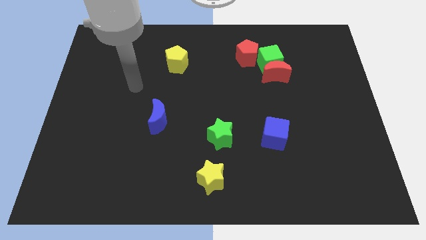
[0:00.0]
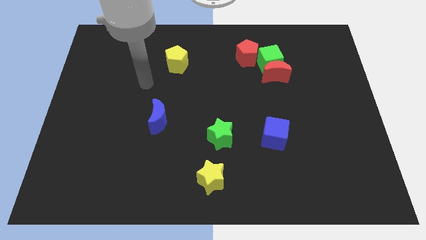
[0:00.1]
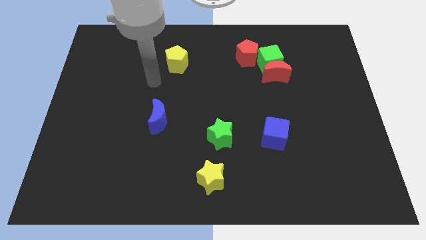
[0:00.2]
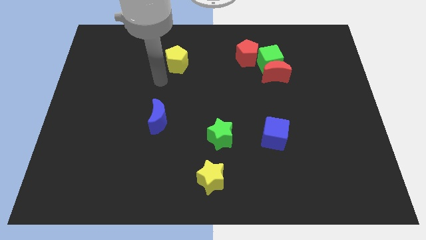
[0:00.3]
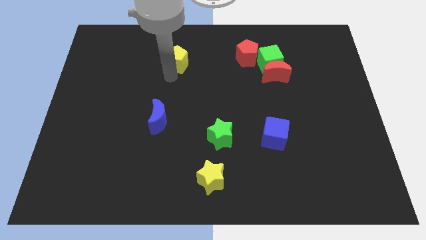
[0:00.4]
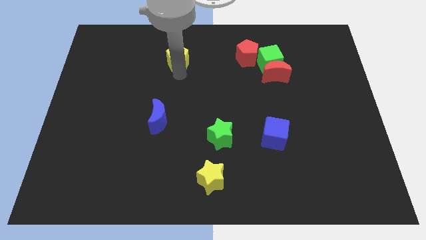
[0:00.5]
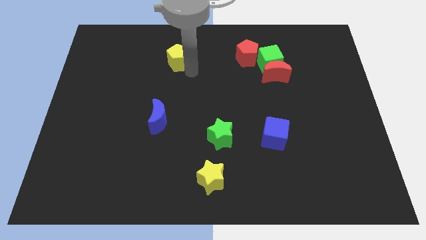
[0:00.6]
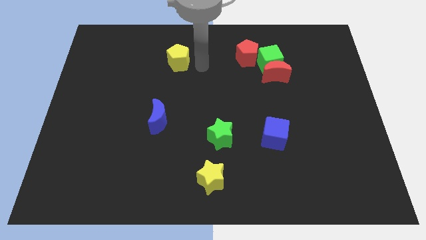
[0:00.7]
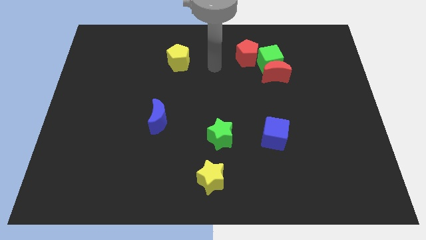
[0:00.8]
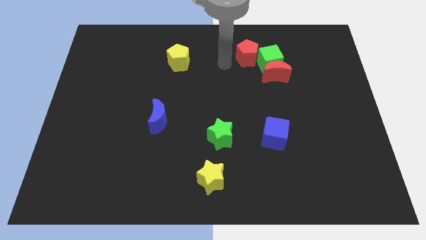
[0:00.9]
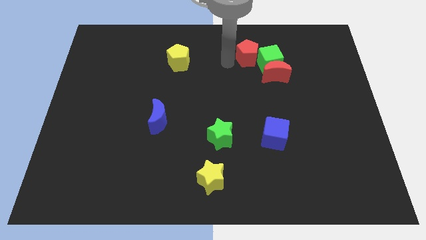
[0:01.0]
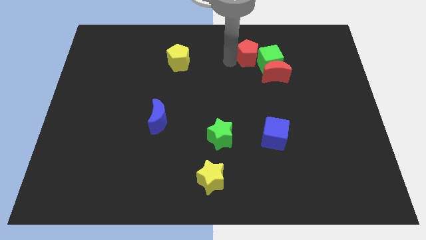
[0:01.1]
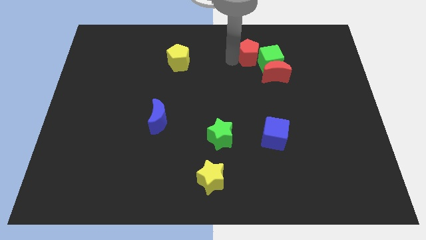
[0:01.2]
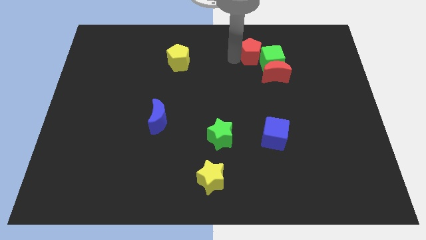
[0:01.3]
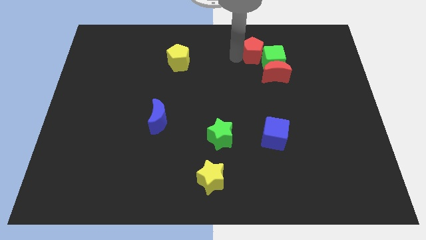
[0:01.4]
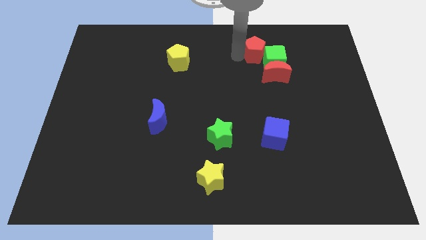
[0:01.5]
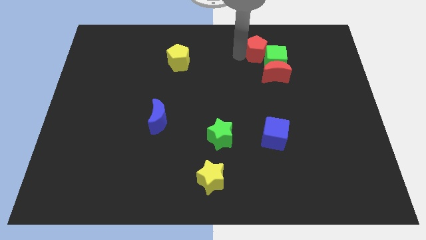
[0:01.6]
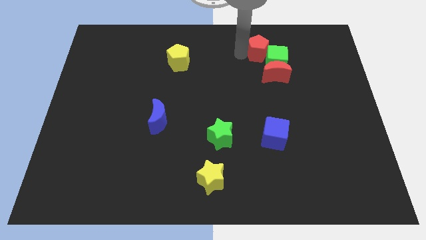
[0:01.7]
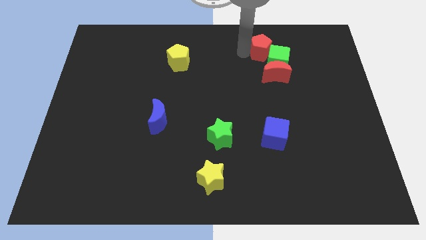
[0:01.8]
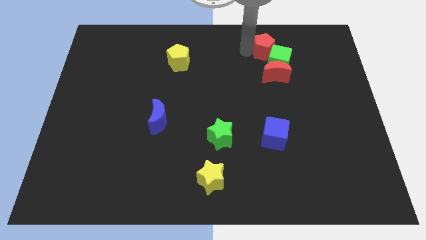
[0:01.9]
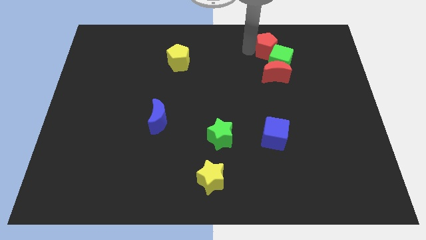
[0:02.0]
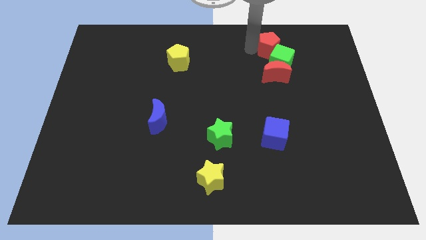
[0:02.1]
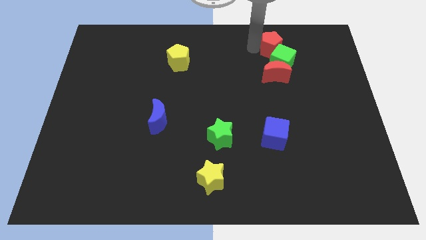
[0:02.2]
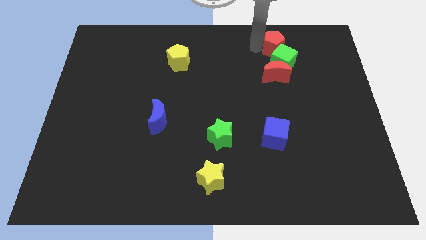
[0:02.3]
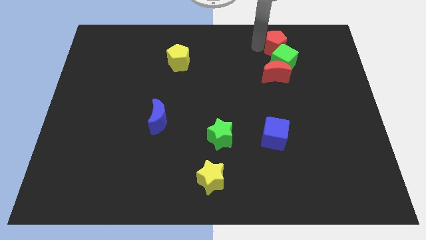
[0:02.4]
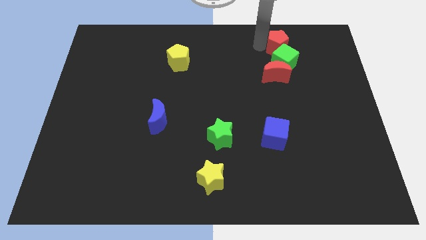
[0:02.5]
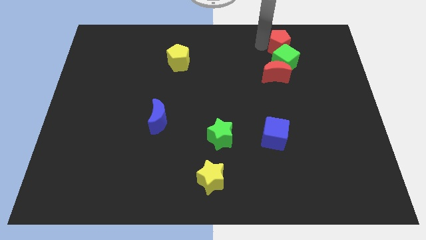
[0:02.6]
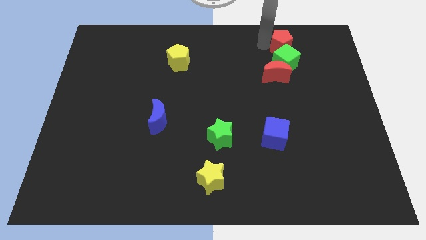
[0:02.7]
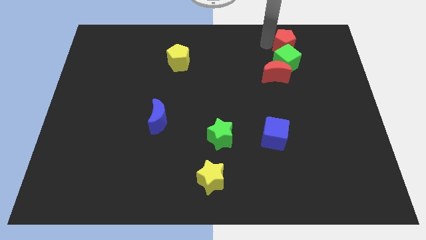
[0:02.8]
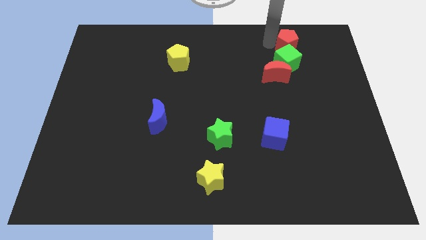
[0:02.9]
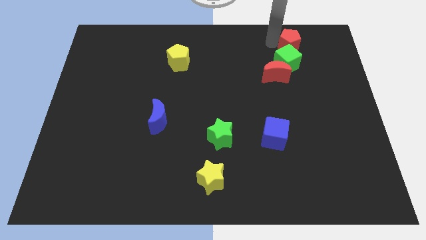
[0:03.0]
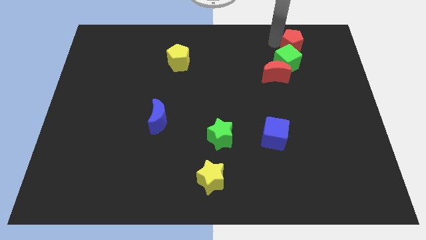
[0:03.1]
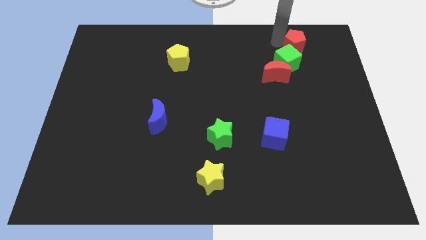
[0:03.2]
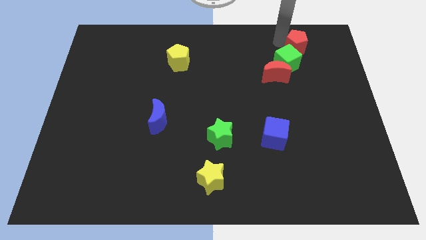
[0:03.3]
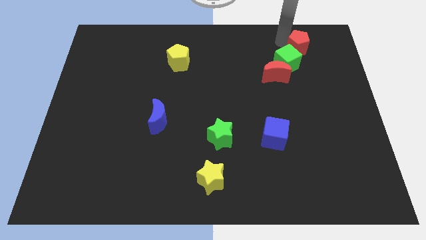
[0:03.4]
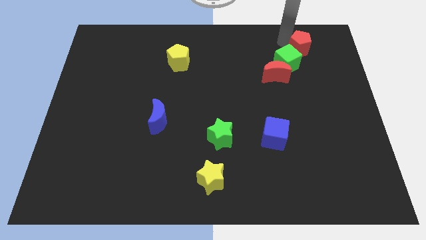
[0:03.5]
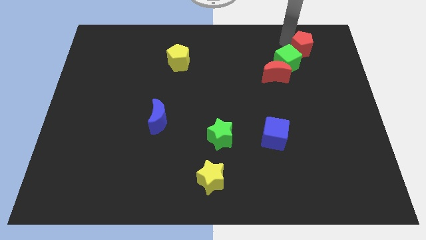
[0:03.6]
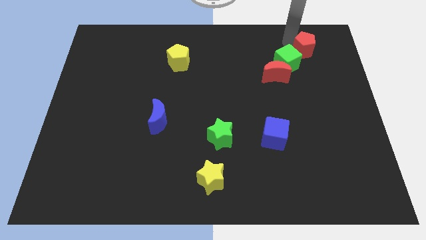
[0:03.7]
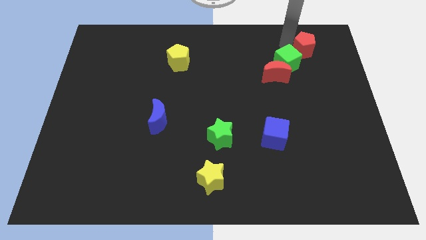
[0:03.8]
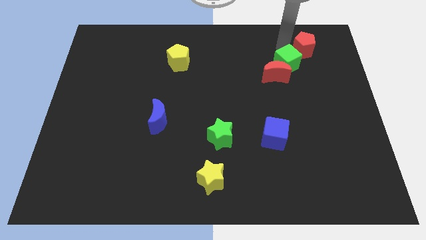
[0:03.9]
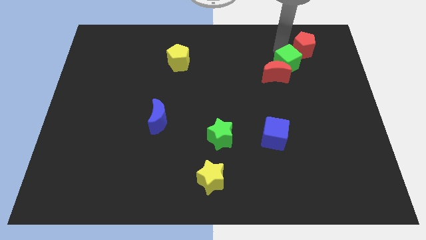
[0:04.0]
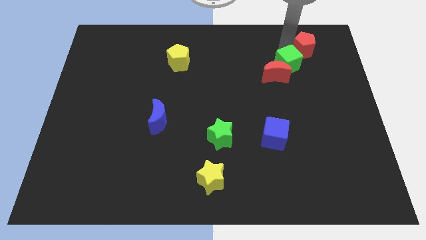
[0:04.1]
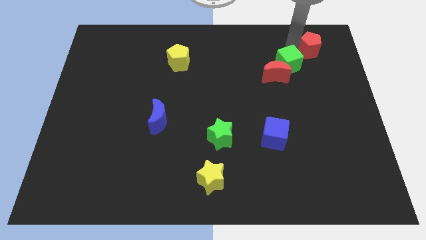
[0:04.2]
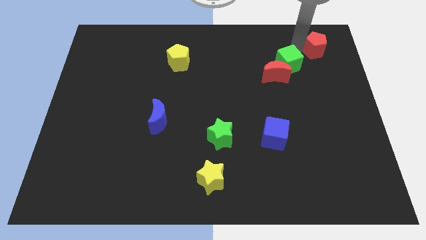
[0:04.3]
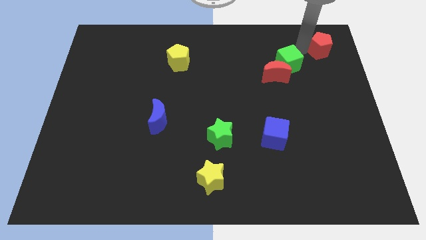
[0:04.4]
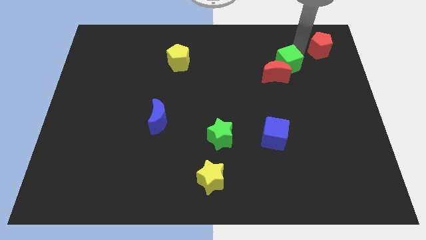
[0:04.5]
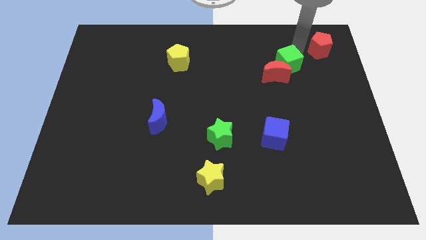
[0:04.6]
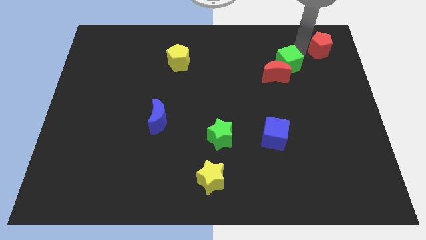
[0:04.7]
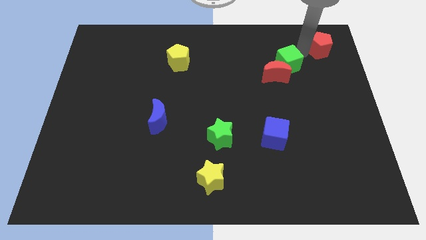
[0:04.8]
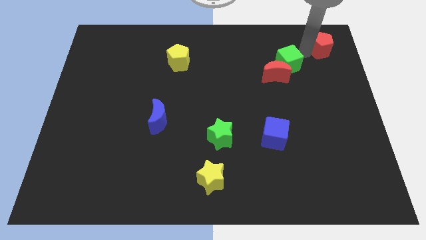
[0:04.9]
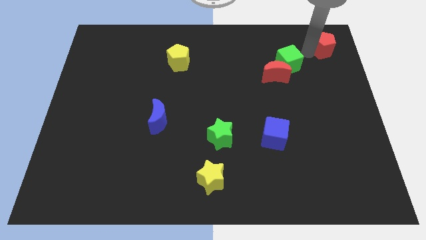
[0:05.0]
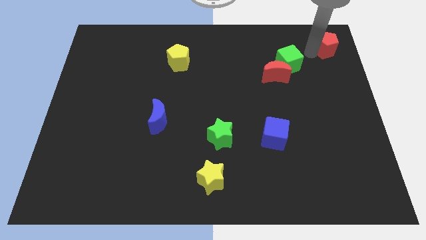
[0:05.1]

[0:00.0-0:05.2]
push the red pentagon to the top right of the board

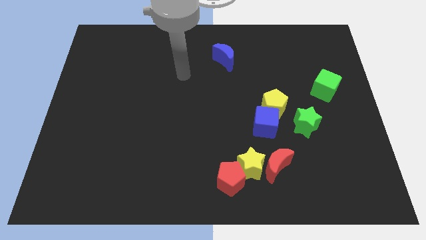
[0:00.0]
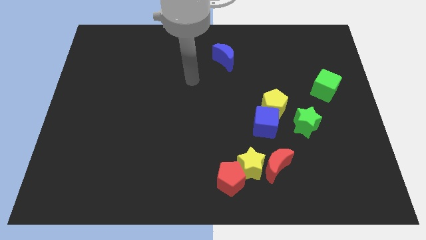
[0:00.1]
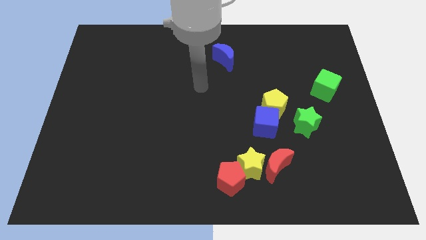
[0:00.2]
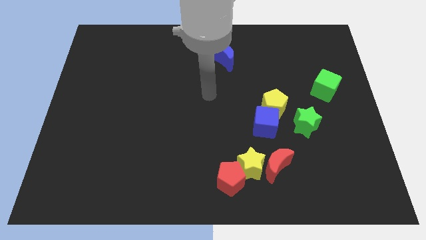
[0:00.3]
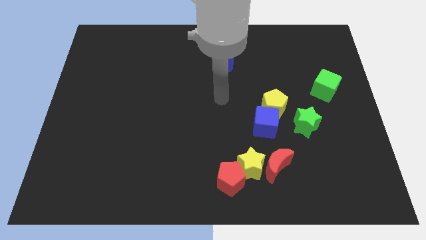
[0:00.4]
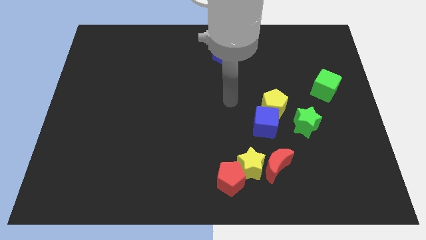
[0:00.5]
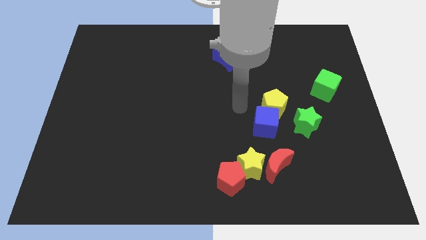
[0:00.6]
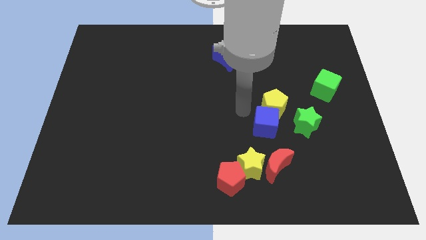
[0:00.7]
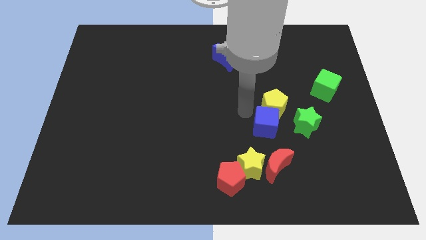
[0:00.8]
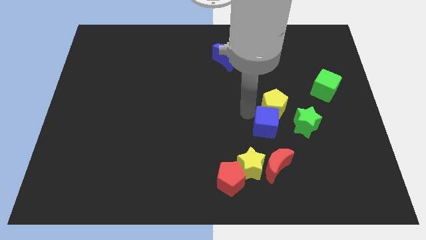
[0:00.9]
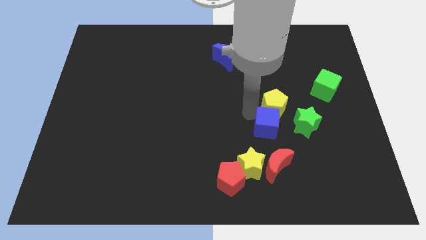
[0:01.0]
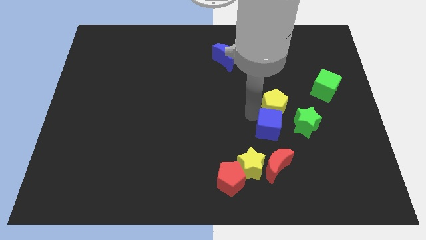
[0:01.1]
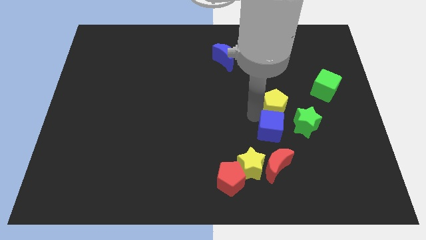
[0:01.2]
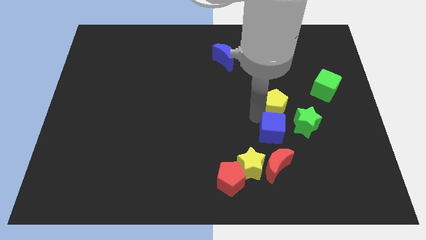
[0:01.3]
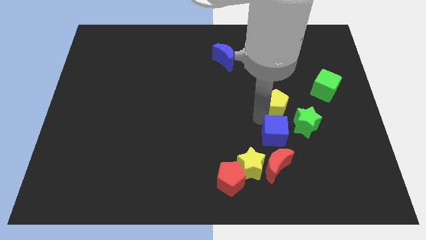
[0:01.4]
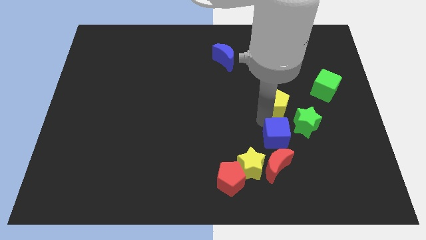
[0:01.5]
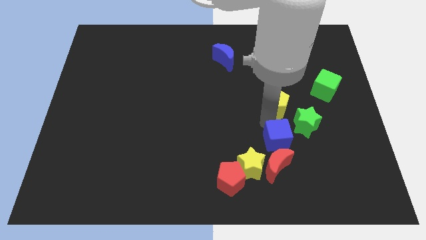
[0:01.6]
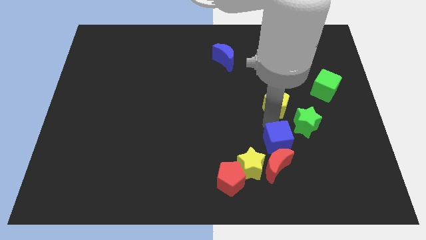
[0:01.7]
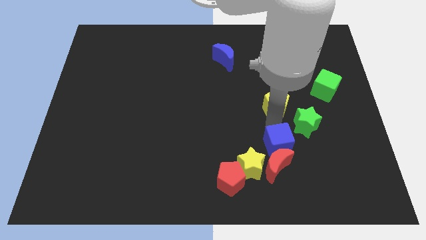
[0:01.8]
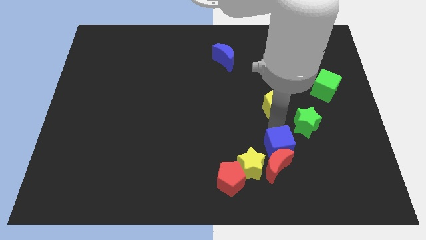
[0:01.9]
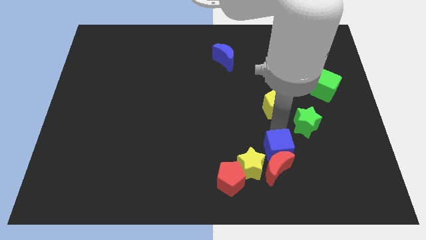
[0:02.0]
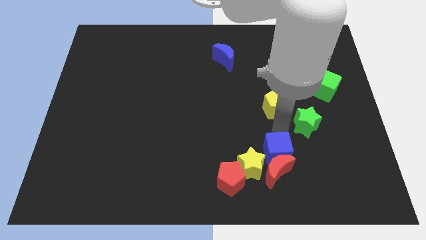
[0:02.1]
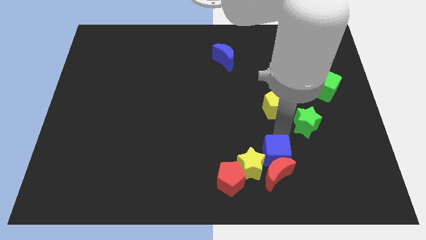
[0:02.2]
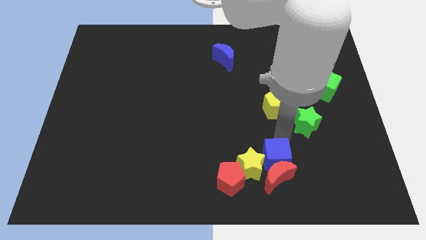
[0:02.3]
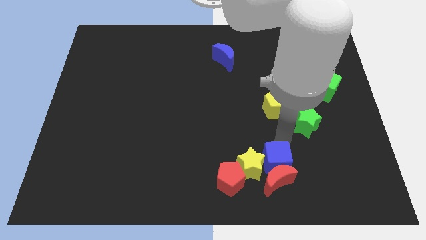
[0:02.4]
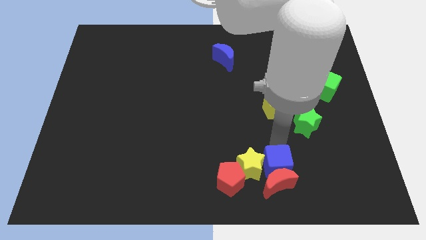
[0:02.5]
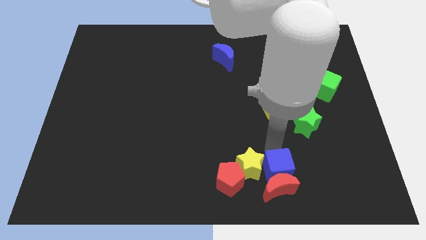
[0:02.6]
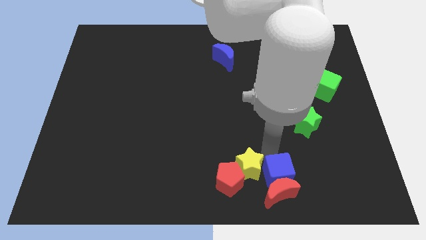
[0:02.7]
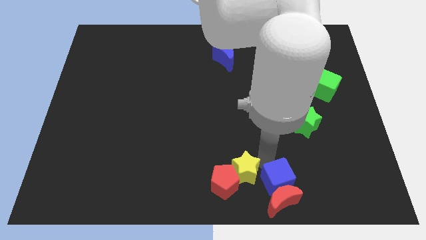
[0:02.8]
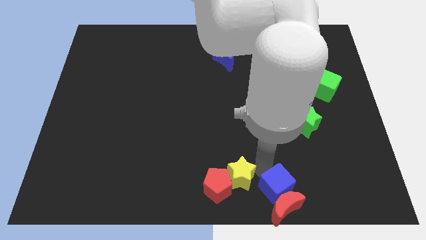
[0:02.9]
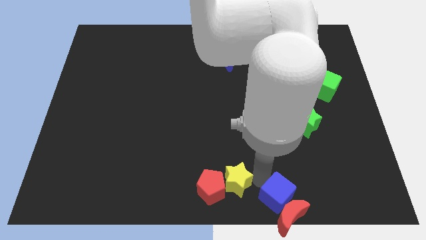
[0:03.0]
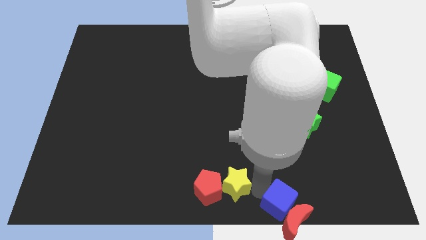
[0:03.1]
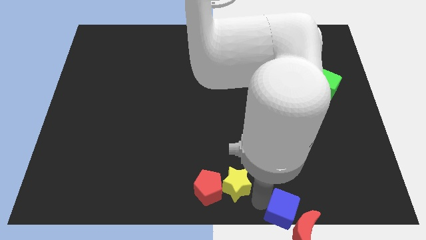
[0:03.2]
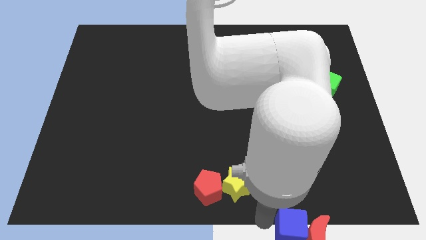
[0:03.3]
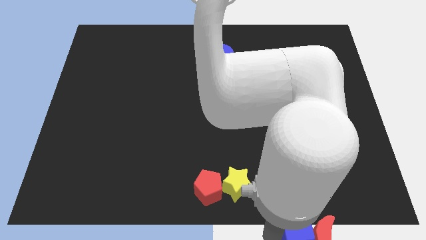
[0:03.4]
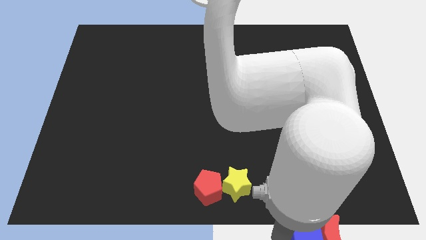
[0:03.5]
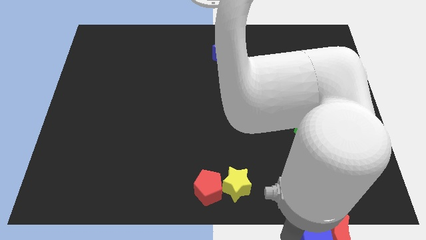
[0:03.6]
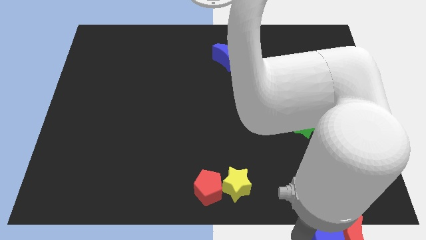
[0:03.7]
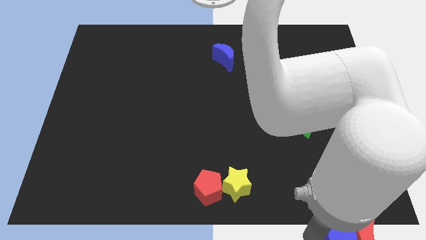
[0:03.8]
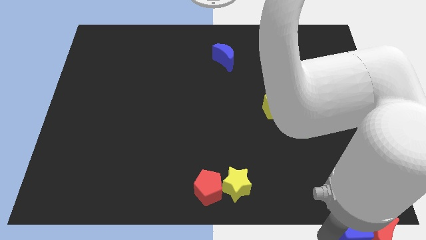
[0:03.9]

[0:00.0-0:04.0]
push the blue cube to the bottom right corner
